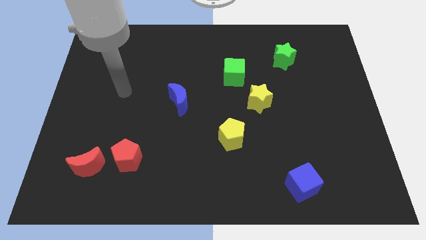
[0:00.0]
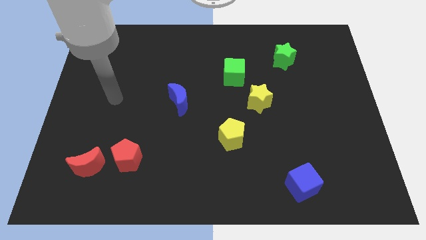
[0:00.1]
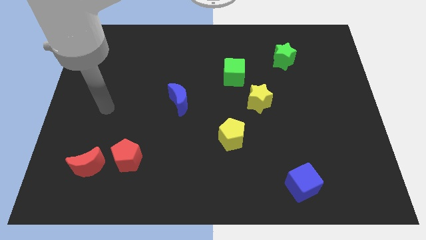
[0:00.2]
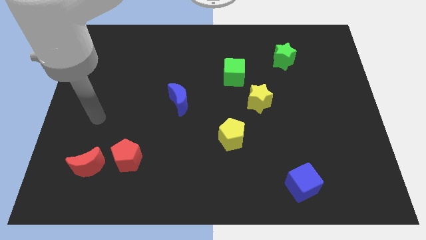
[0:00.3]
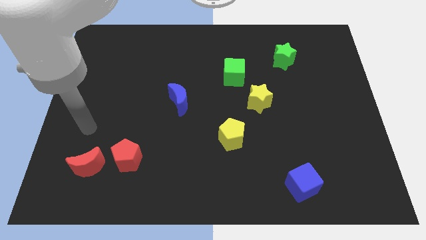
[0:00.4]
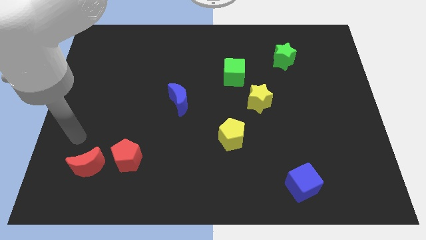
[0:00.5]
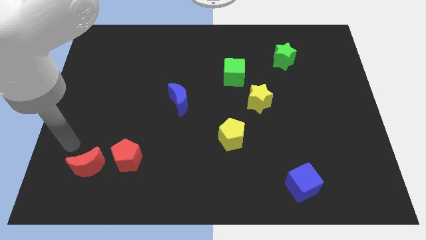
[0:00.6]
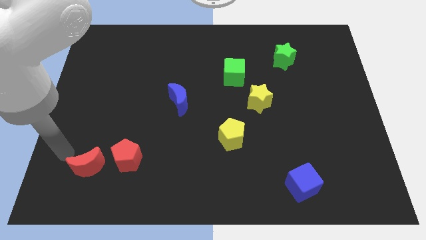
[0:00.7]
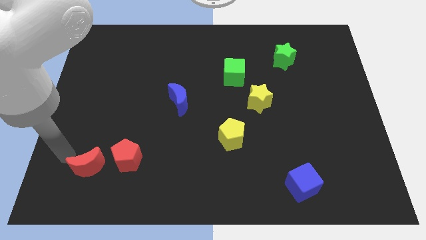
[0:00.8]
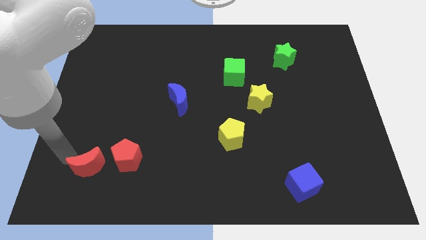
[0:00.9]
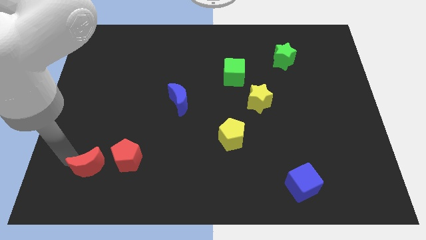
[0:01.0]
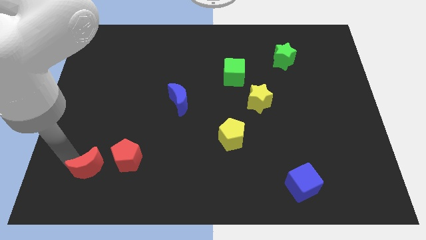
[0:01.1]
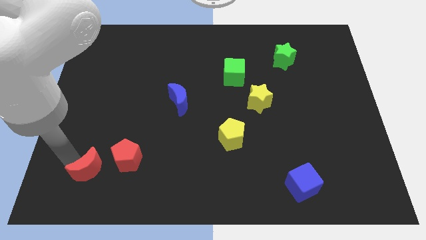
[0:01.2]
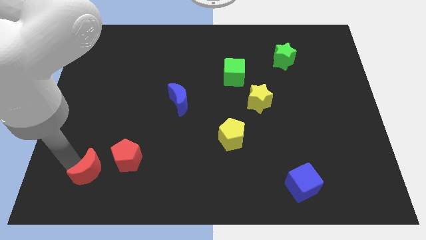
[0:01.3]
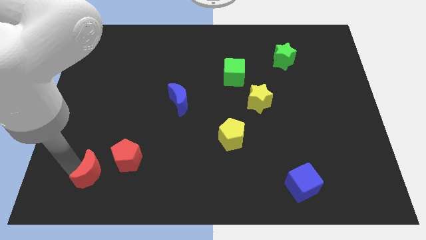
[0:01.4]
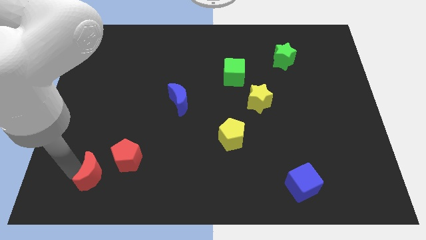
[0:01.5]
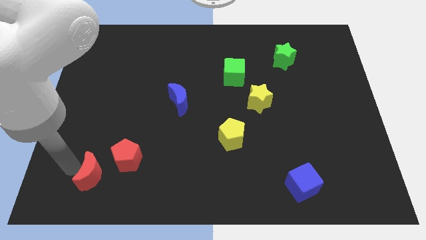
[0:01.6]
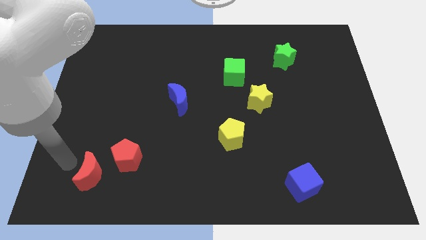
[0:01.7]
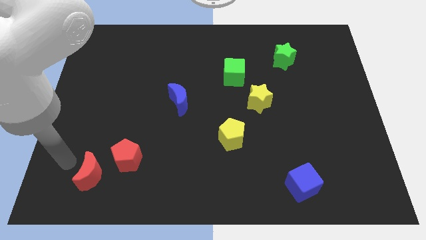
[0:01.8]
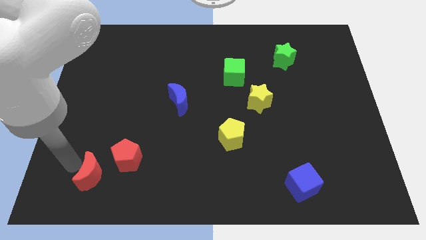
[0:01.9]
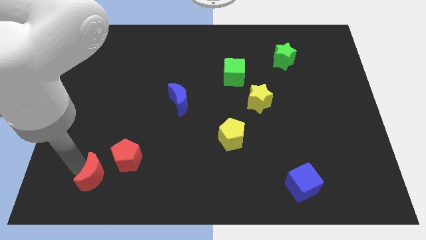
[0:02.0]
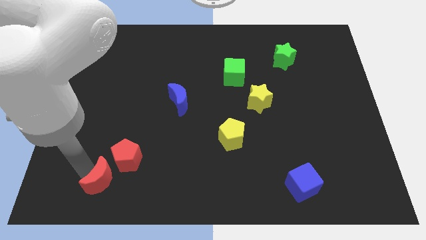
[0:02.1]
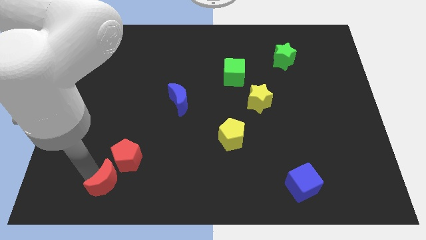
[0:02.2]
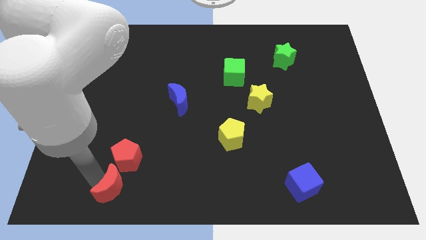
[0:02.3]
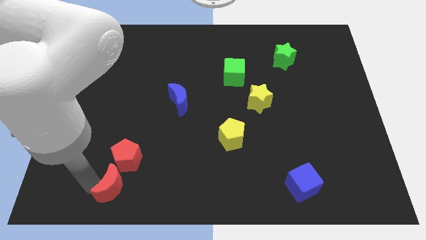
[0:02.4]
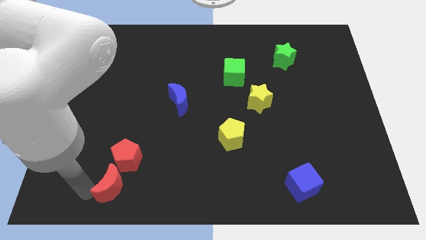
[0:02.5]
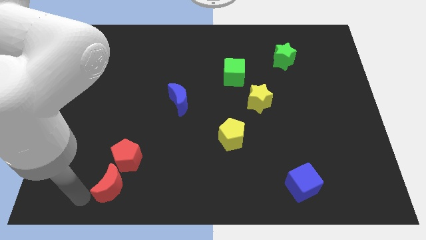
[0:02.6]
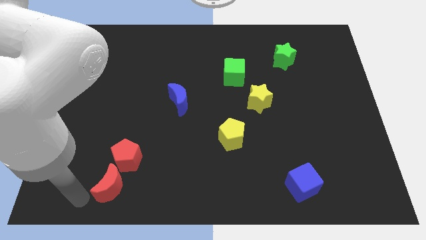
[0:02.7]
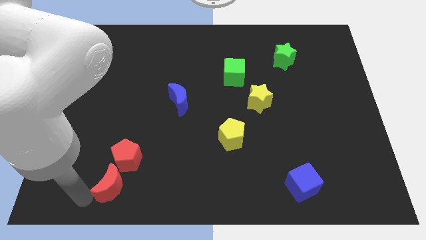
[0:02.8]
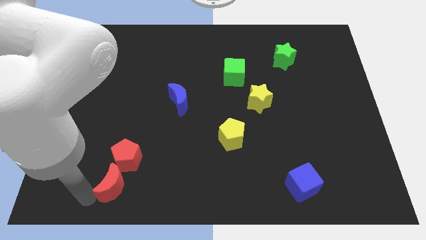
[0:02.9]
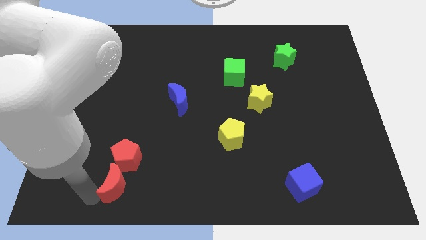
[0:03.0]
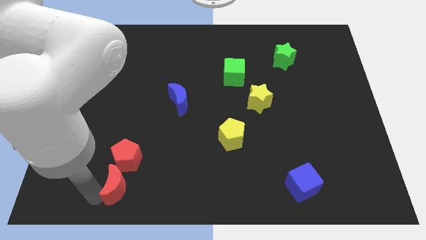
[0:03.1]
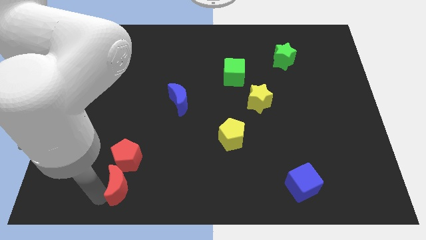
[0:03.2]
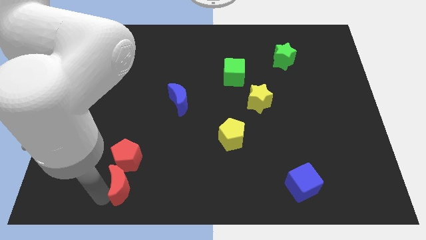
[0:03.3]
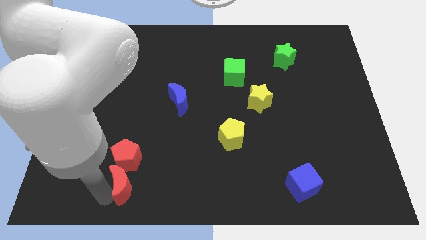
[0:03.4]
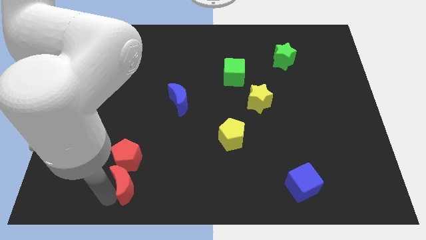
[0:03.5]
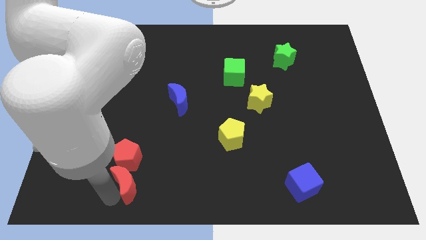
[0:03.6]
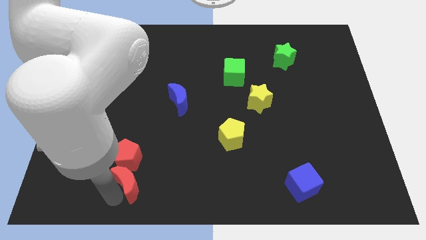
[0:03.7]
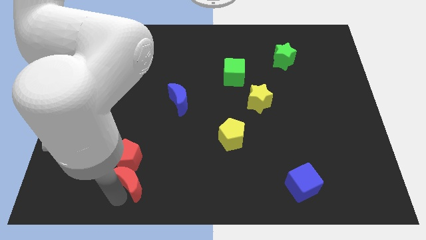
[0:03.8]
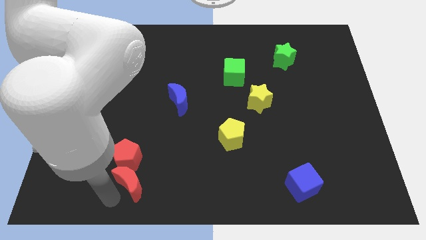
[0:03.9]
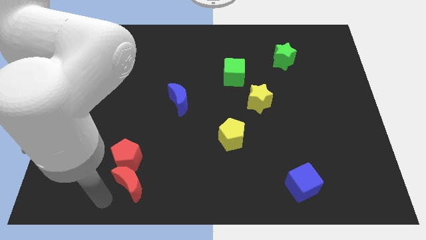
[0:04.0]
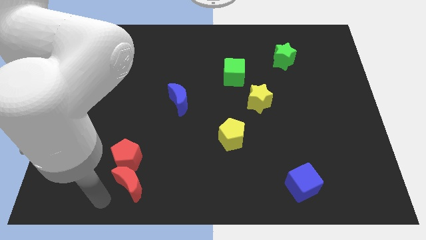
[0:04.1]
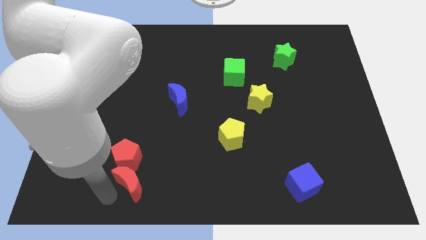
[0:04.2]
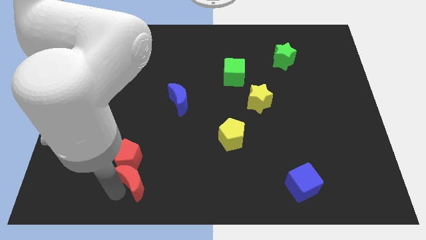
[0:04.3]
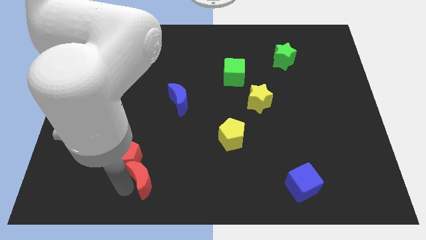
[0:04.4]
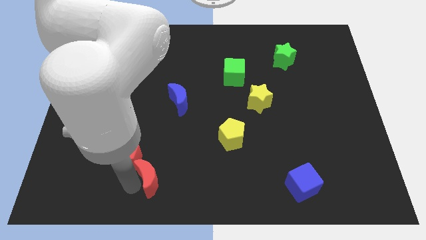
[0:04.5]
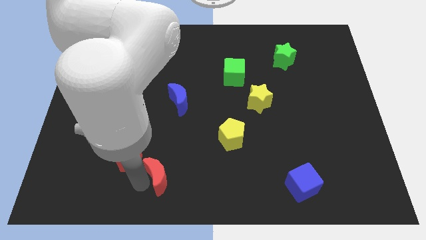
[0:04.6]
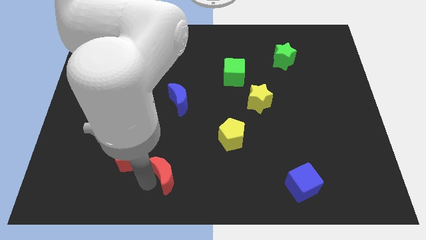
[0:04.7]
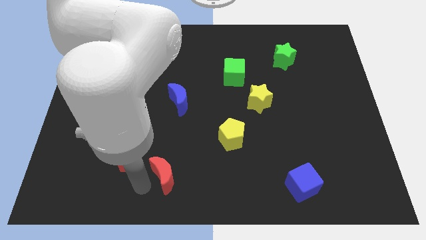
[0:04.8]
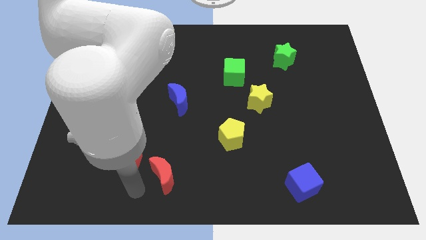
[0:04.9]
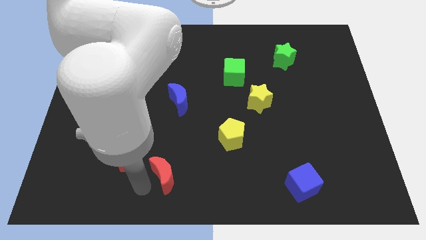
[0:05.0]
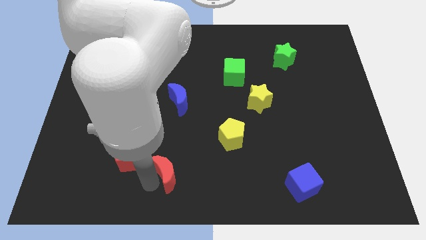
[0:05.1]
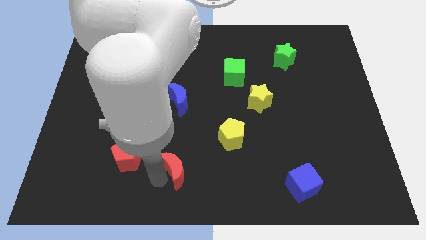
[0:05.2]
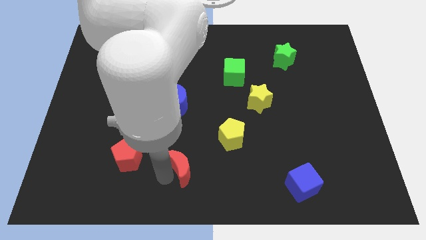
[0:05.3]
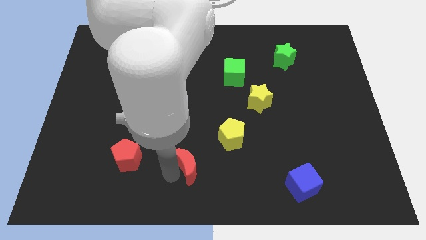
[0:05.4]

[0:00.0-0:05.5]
move the red moon right

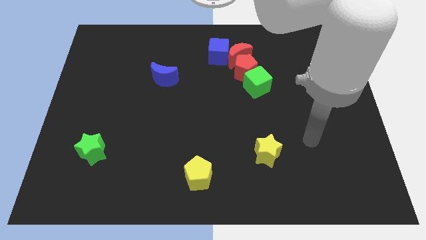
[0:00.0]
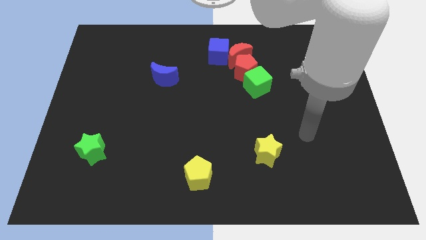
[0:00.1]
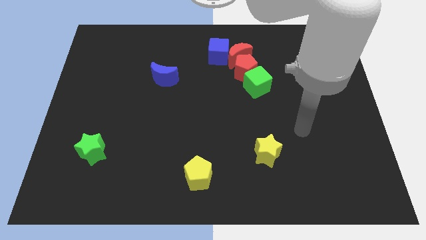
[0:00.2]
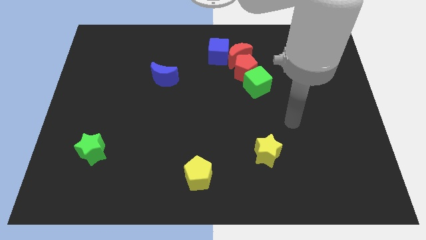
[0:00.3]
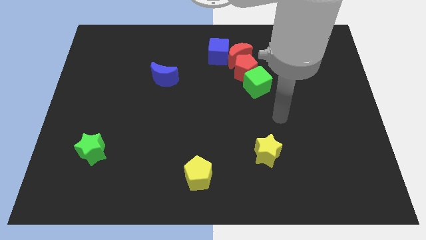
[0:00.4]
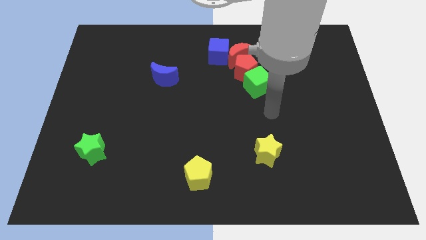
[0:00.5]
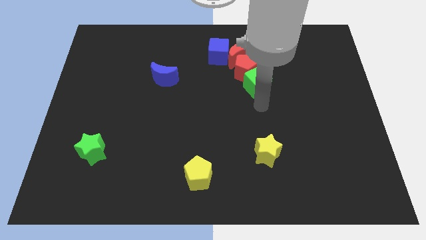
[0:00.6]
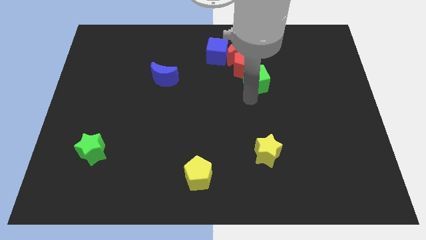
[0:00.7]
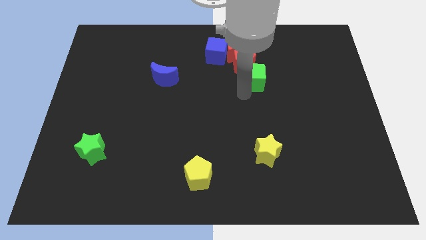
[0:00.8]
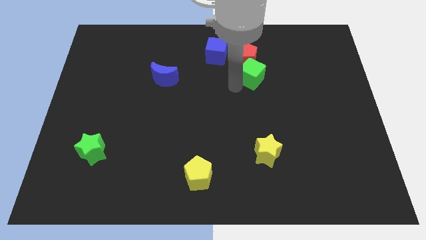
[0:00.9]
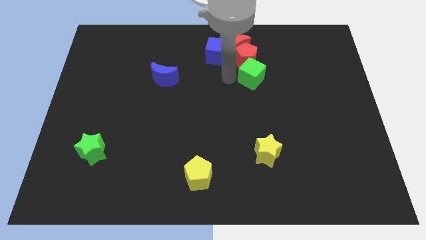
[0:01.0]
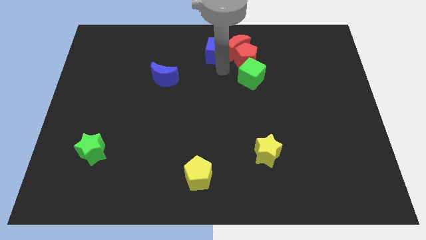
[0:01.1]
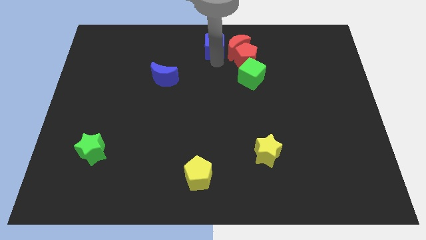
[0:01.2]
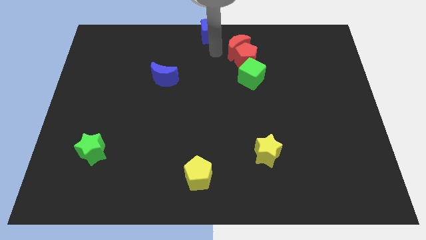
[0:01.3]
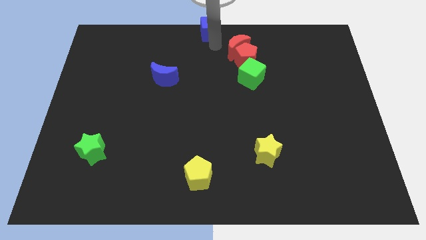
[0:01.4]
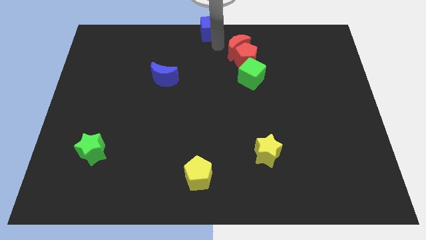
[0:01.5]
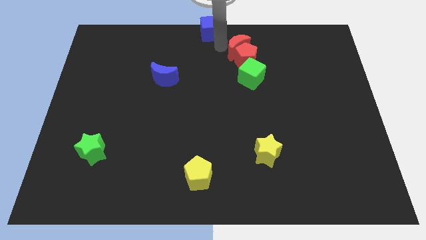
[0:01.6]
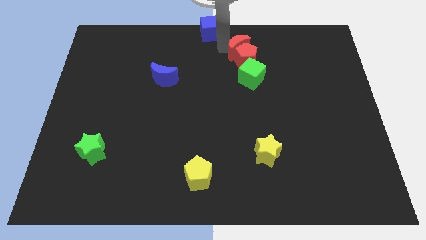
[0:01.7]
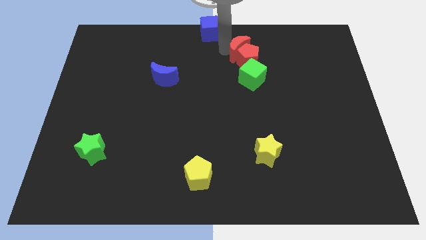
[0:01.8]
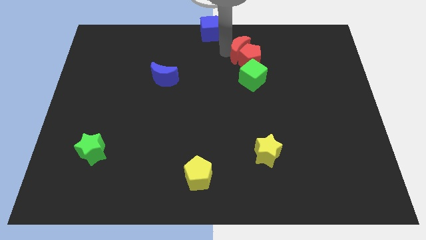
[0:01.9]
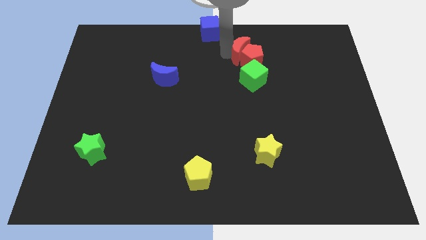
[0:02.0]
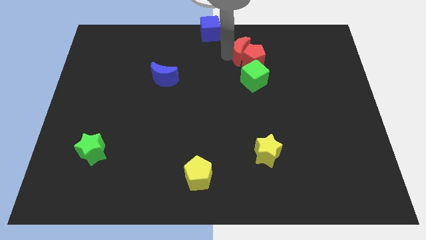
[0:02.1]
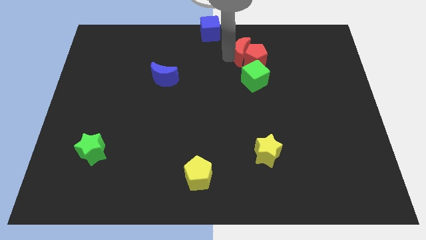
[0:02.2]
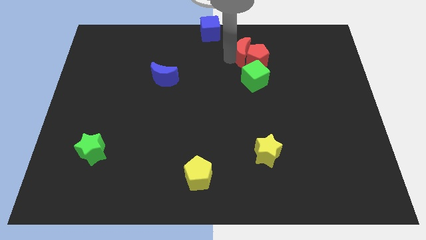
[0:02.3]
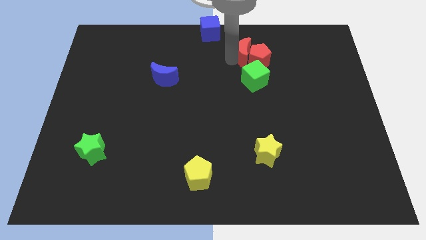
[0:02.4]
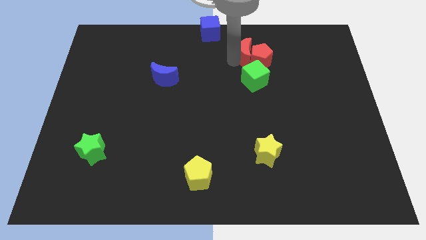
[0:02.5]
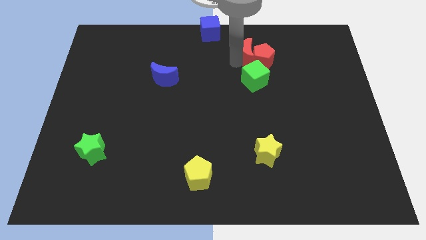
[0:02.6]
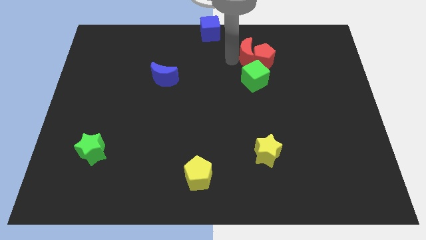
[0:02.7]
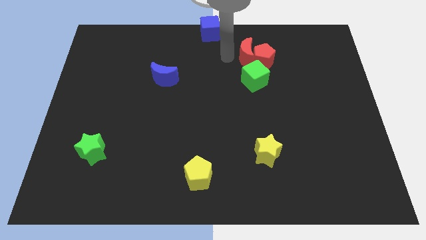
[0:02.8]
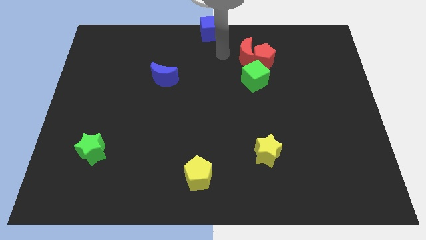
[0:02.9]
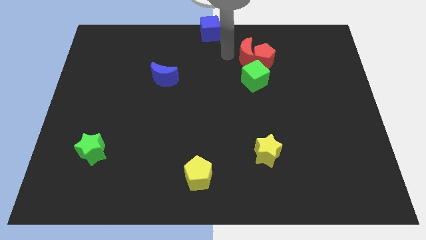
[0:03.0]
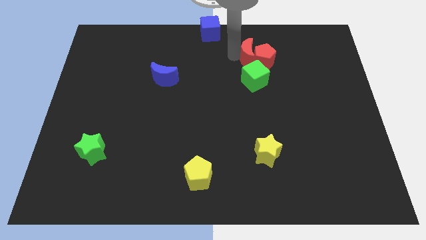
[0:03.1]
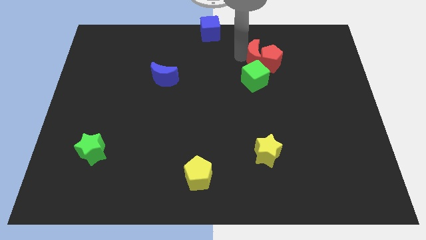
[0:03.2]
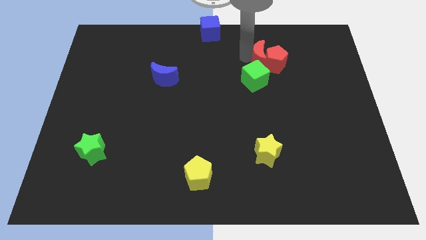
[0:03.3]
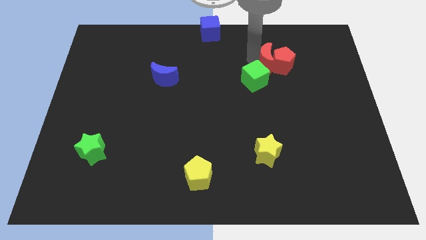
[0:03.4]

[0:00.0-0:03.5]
slightly slide the red moon to the right
